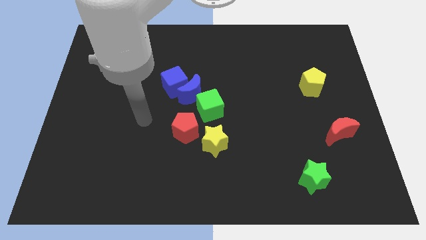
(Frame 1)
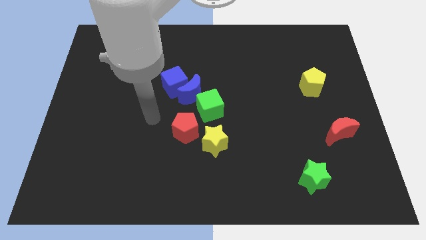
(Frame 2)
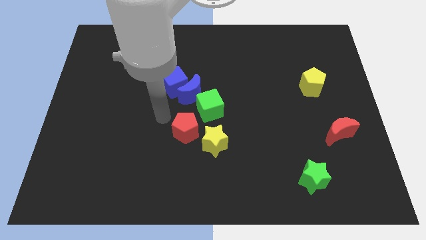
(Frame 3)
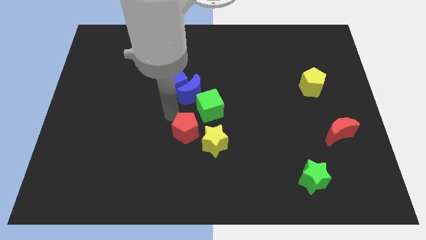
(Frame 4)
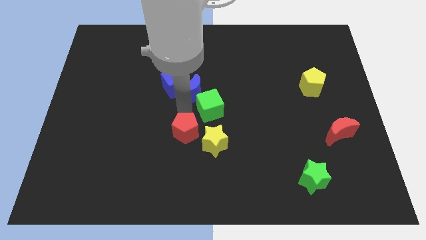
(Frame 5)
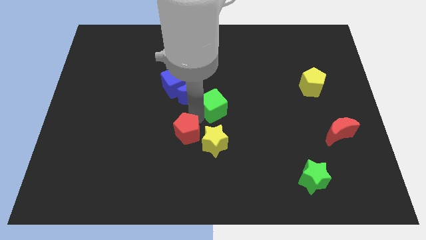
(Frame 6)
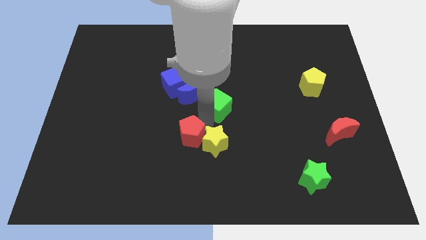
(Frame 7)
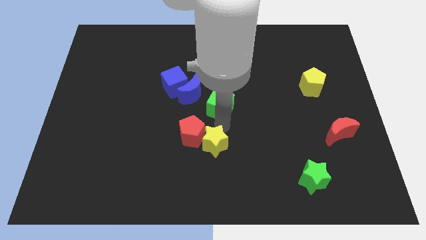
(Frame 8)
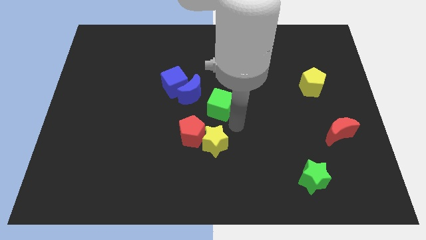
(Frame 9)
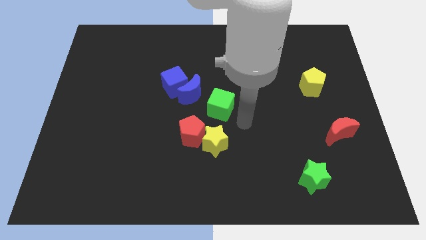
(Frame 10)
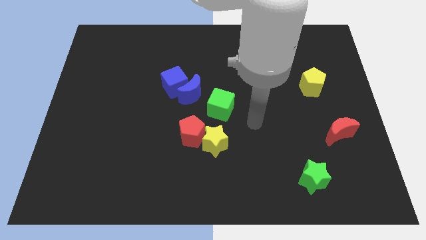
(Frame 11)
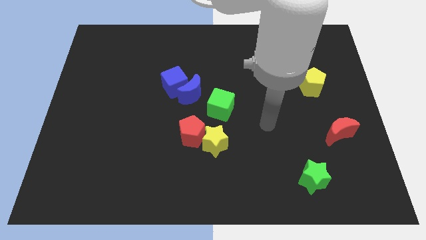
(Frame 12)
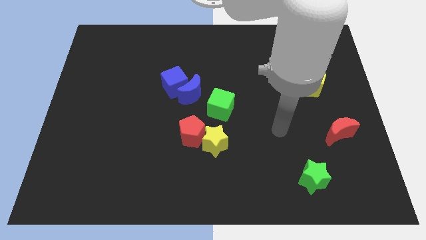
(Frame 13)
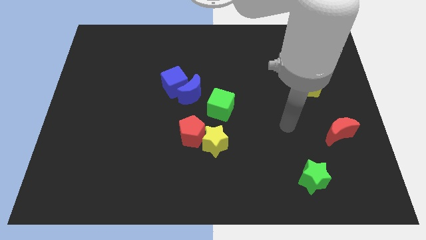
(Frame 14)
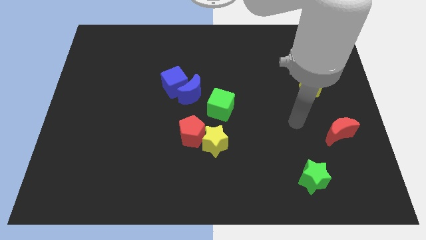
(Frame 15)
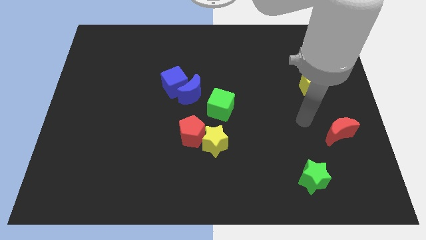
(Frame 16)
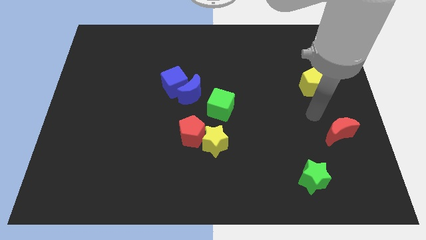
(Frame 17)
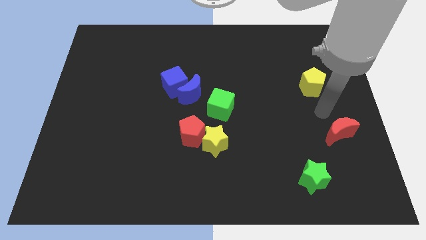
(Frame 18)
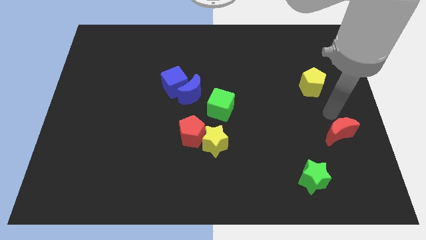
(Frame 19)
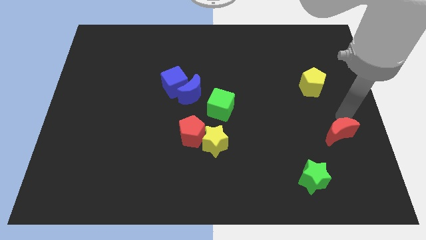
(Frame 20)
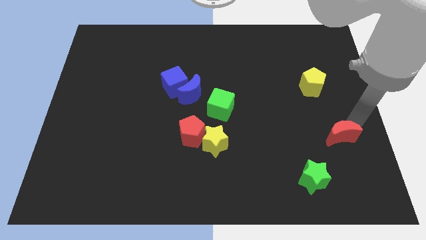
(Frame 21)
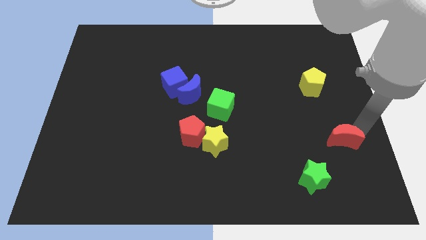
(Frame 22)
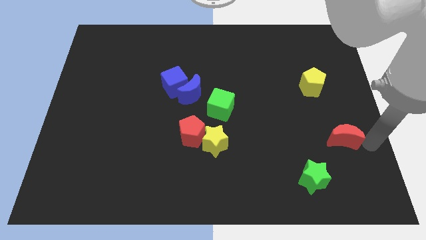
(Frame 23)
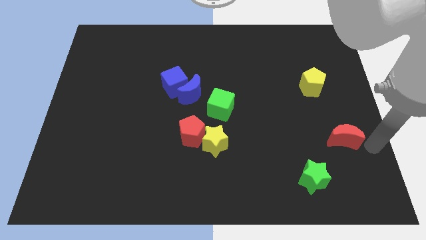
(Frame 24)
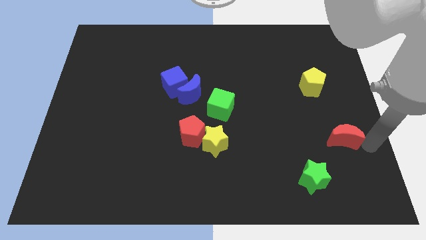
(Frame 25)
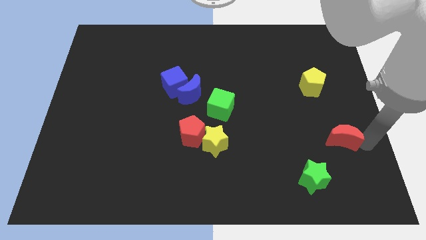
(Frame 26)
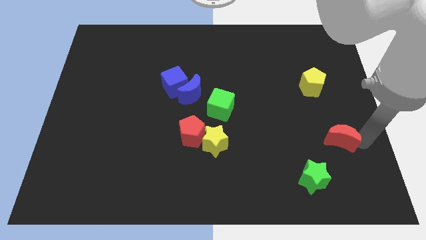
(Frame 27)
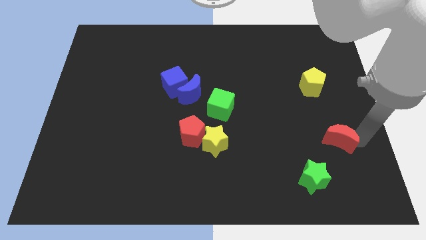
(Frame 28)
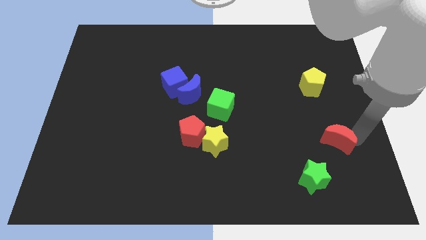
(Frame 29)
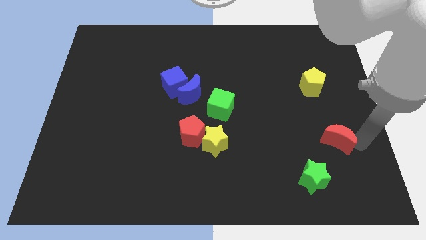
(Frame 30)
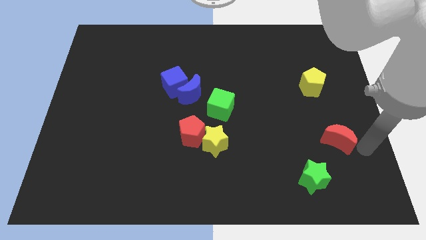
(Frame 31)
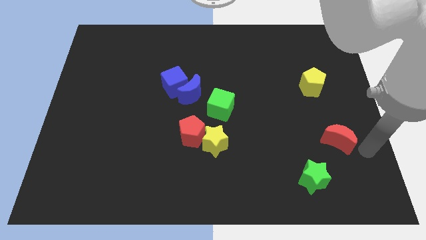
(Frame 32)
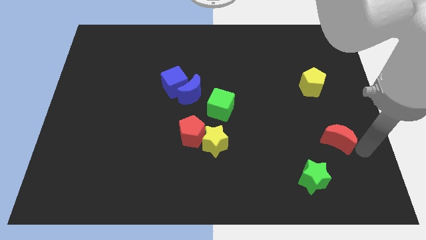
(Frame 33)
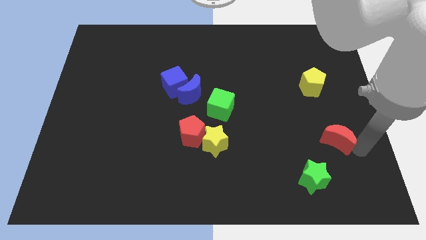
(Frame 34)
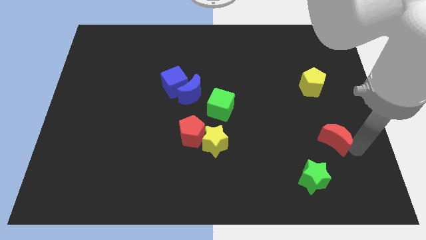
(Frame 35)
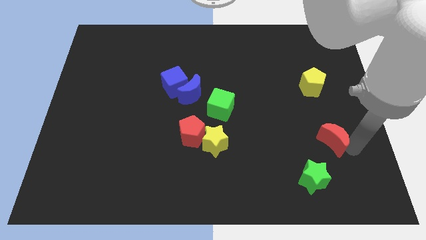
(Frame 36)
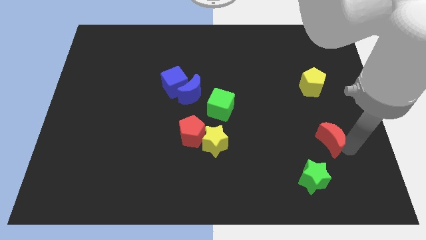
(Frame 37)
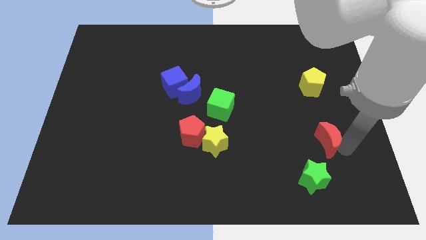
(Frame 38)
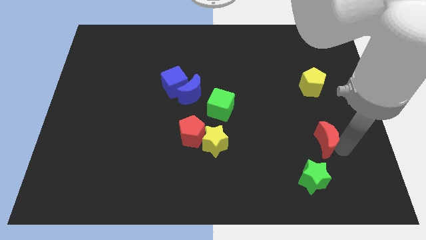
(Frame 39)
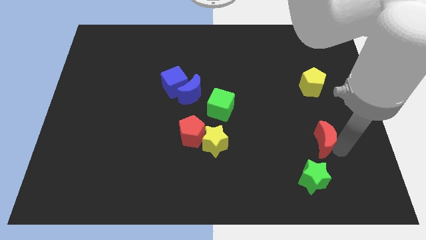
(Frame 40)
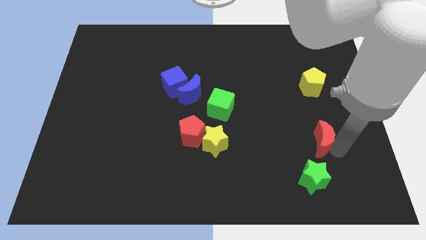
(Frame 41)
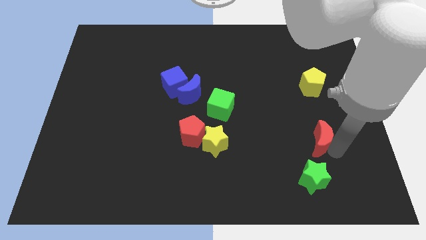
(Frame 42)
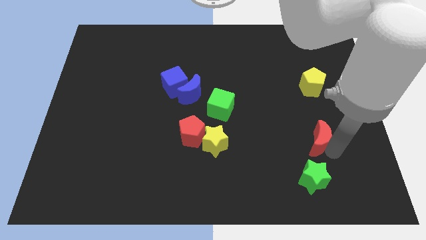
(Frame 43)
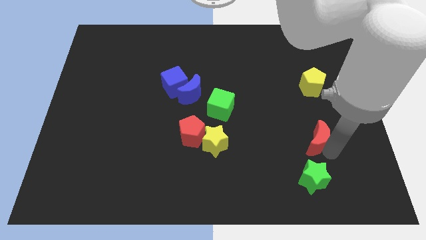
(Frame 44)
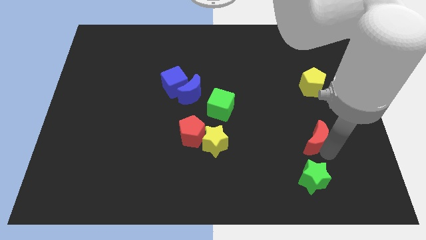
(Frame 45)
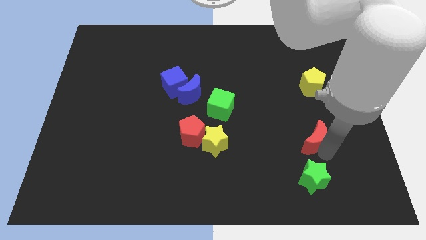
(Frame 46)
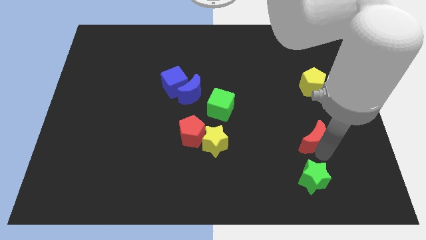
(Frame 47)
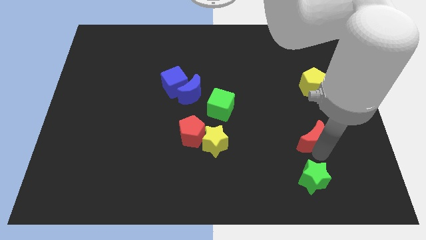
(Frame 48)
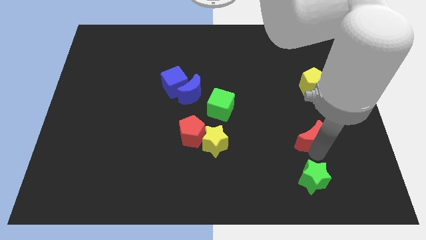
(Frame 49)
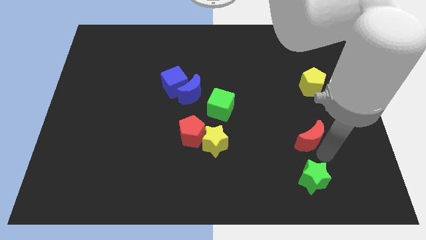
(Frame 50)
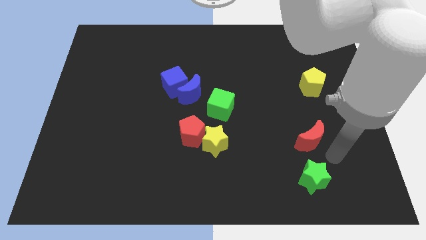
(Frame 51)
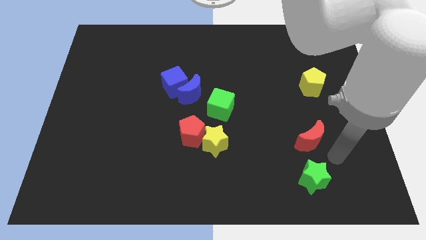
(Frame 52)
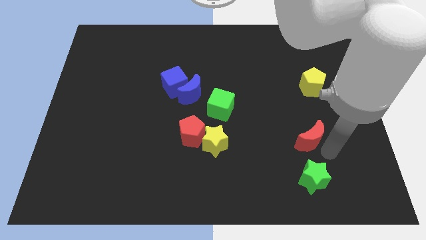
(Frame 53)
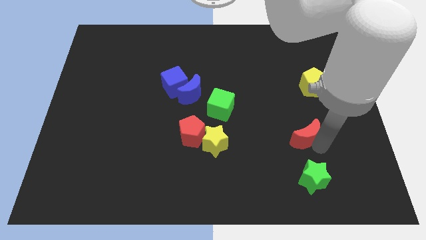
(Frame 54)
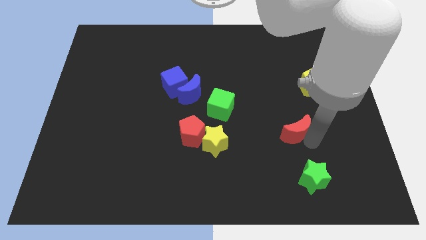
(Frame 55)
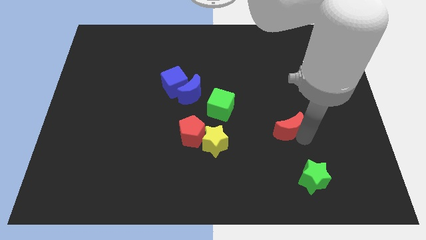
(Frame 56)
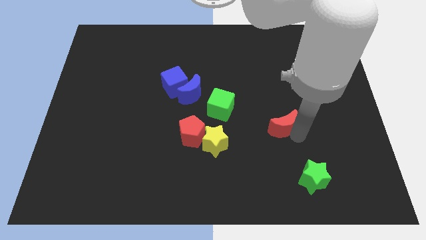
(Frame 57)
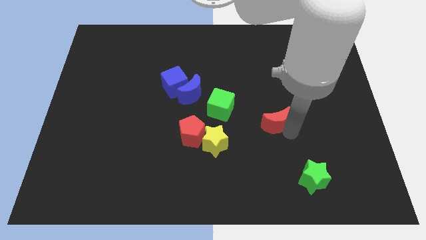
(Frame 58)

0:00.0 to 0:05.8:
put the red moon to the right of the green cube

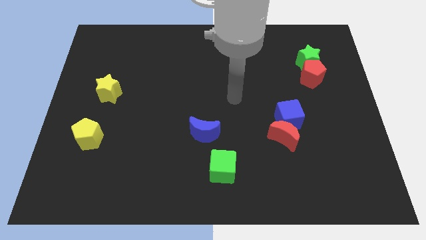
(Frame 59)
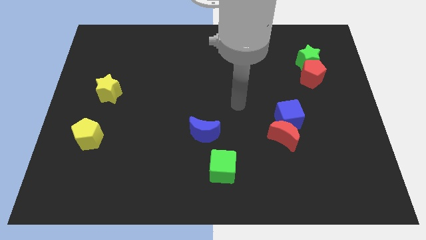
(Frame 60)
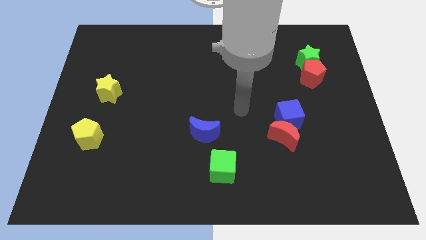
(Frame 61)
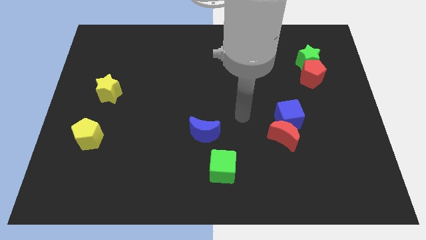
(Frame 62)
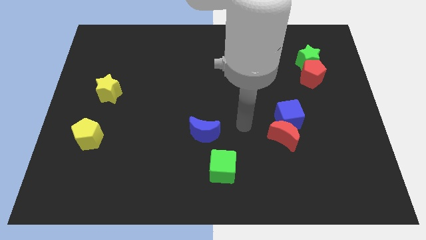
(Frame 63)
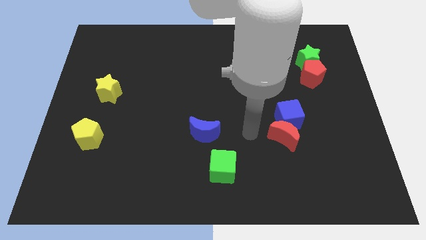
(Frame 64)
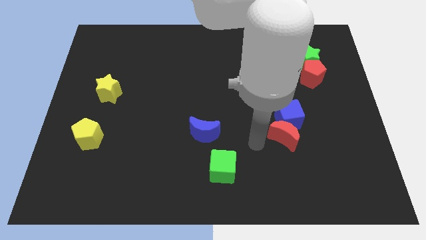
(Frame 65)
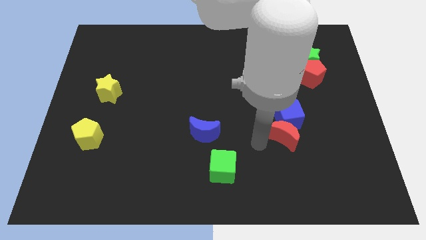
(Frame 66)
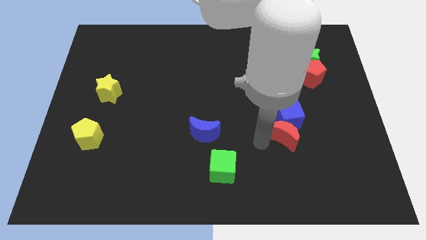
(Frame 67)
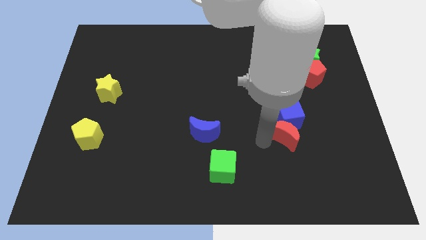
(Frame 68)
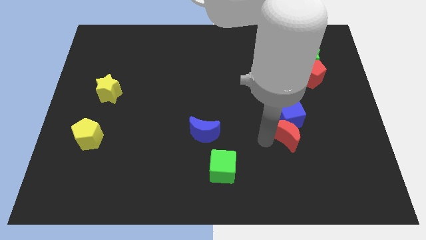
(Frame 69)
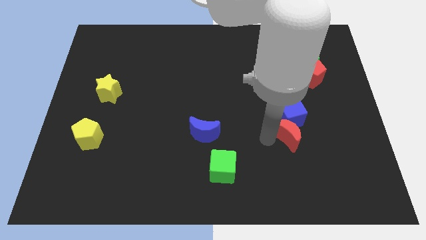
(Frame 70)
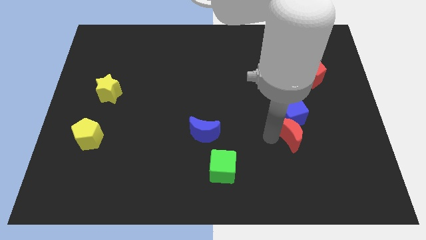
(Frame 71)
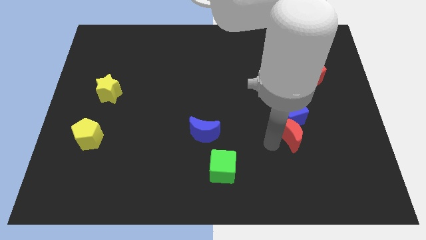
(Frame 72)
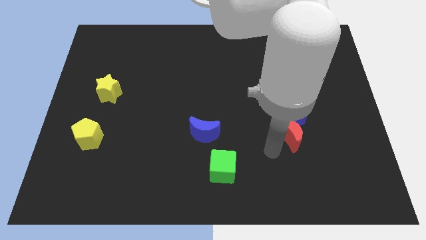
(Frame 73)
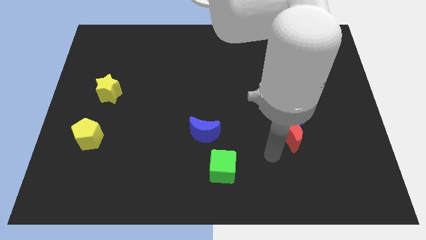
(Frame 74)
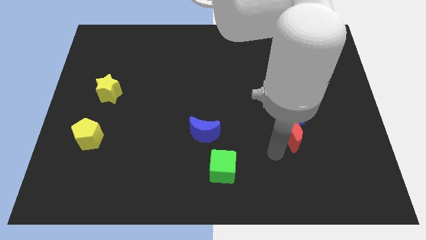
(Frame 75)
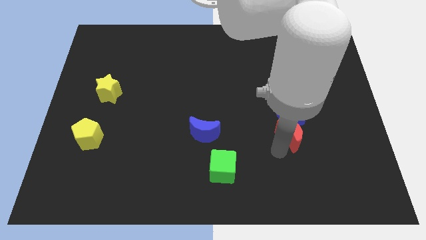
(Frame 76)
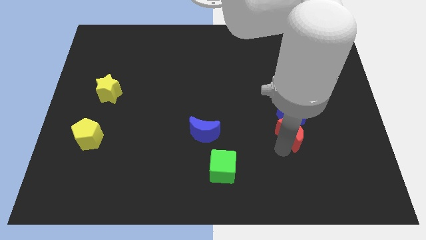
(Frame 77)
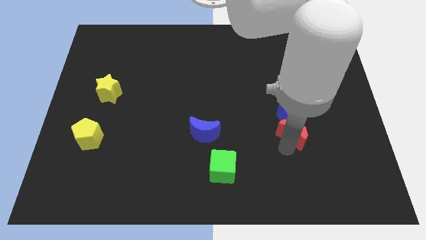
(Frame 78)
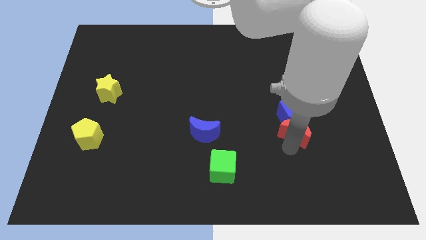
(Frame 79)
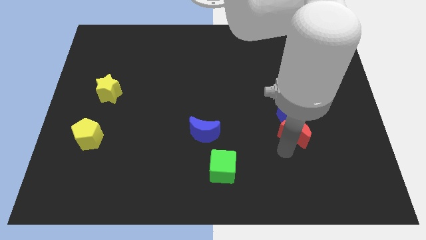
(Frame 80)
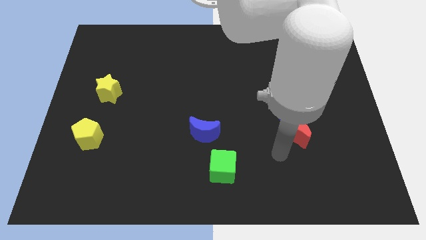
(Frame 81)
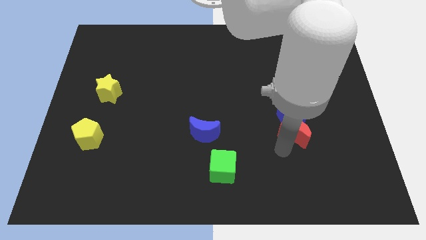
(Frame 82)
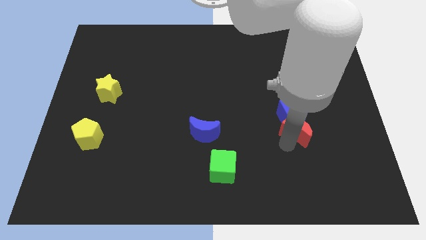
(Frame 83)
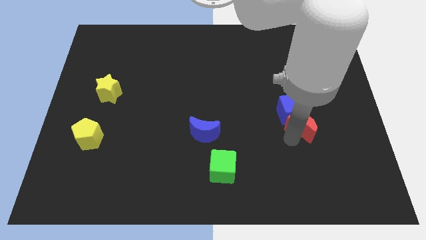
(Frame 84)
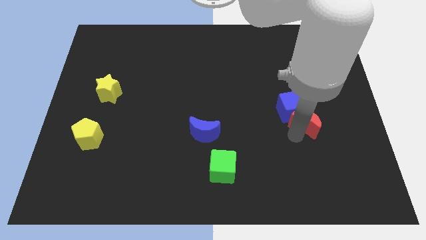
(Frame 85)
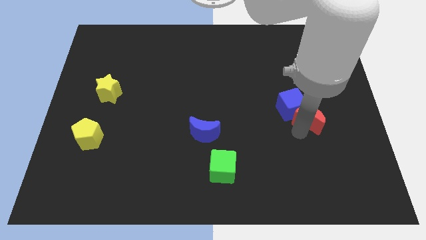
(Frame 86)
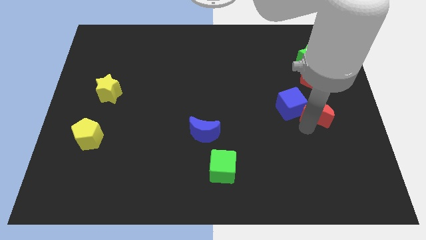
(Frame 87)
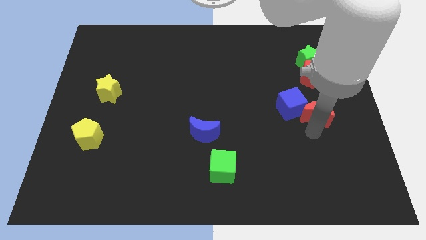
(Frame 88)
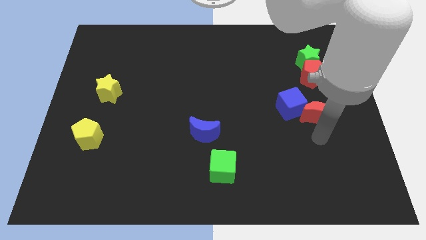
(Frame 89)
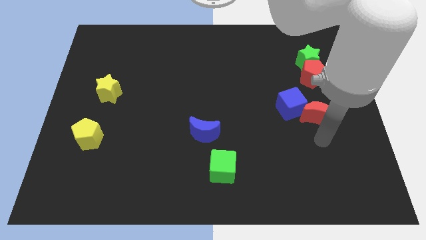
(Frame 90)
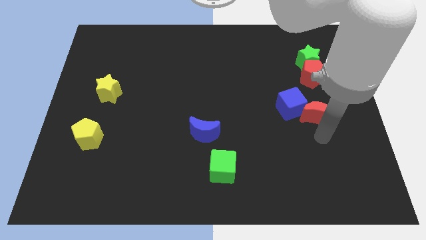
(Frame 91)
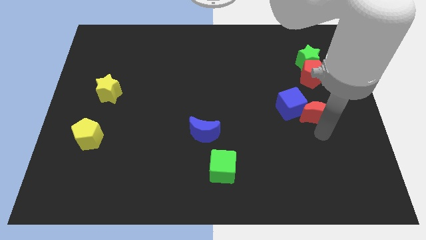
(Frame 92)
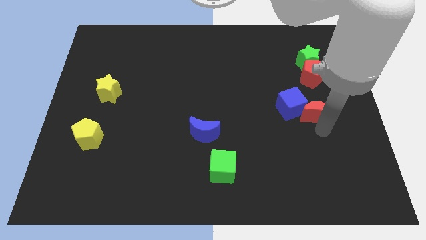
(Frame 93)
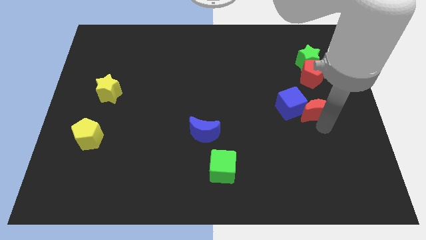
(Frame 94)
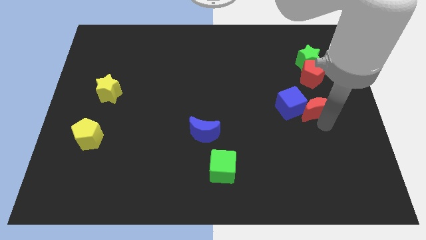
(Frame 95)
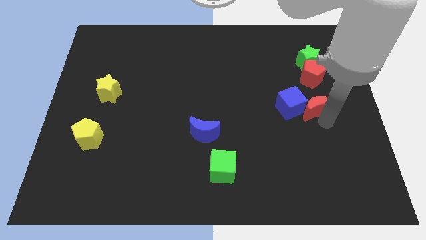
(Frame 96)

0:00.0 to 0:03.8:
slide the red moon to the top right side of the blue cube
